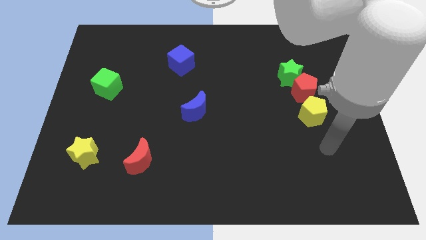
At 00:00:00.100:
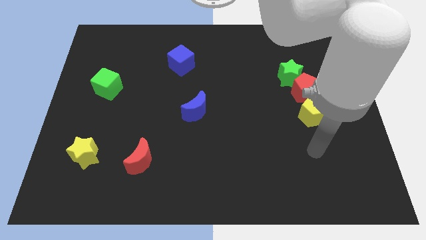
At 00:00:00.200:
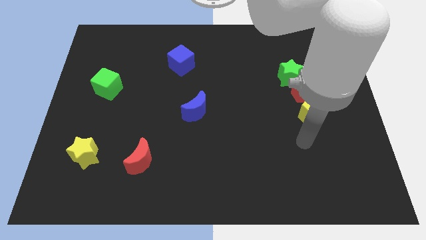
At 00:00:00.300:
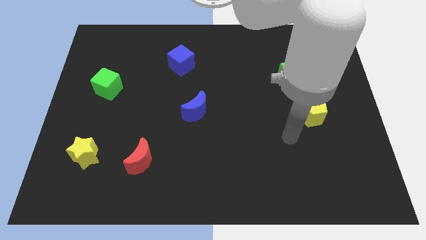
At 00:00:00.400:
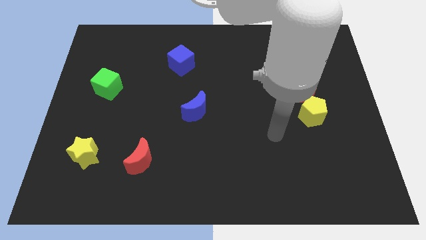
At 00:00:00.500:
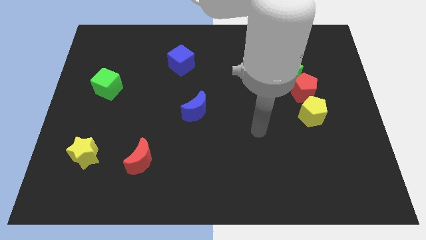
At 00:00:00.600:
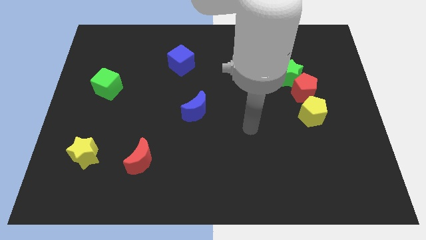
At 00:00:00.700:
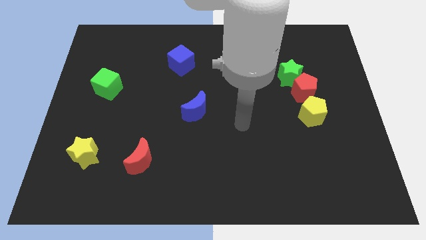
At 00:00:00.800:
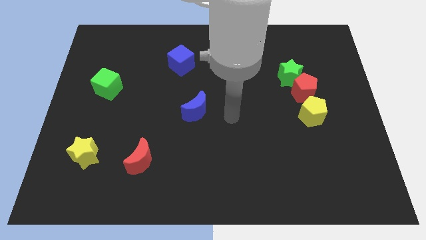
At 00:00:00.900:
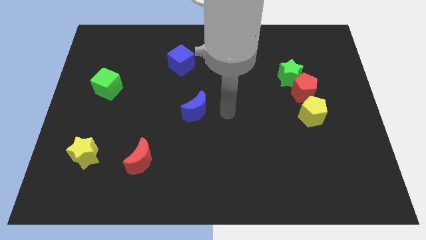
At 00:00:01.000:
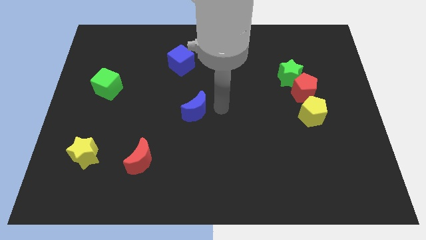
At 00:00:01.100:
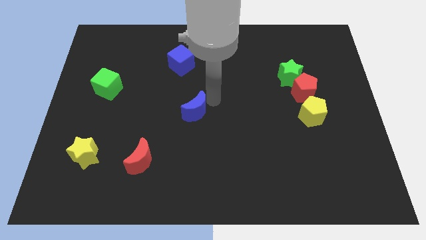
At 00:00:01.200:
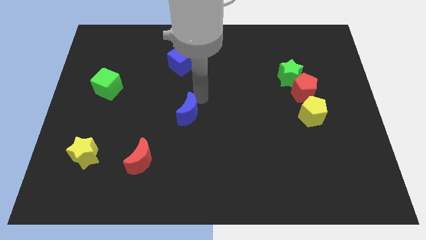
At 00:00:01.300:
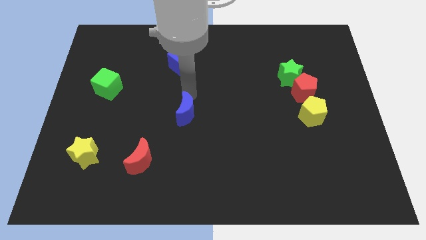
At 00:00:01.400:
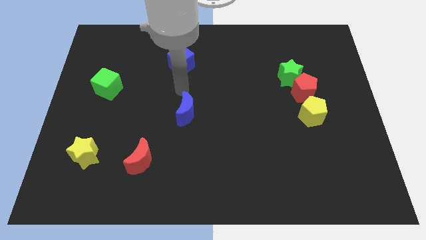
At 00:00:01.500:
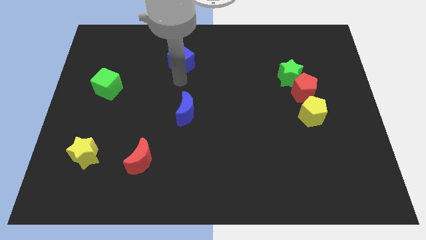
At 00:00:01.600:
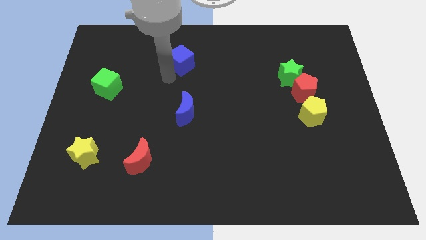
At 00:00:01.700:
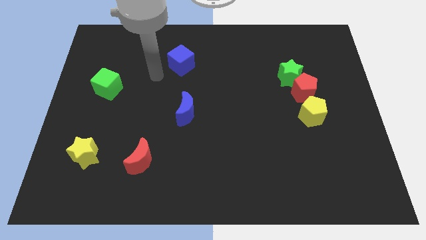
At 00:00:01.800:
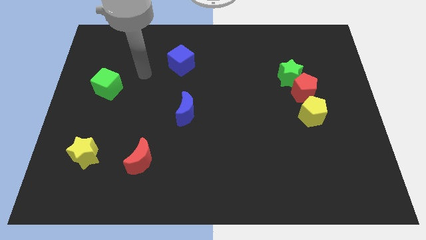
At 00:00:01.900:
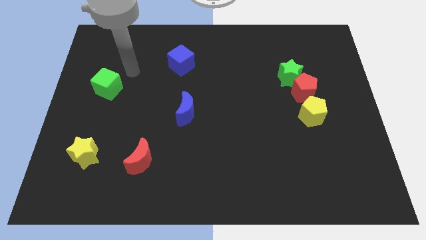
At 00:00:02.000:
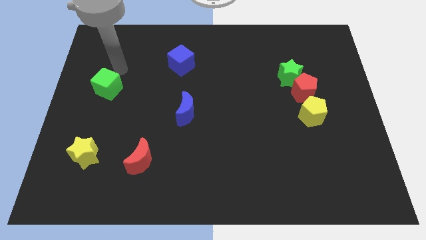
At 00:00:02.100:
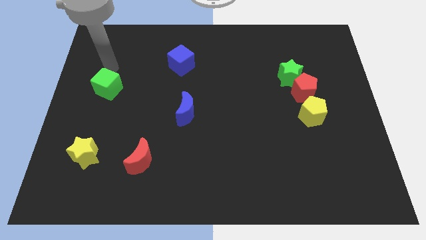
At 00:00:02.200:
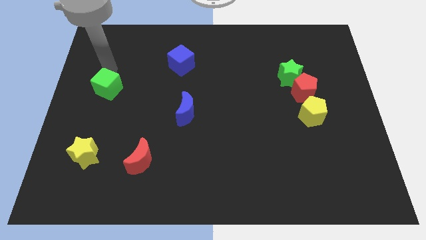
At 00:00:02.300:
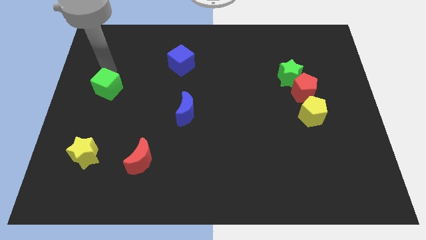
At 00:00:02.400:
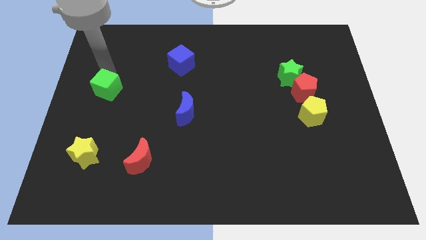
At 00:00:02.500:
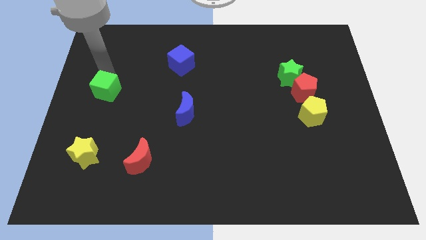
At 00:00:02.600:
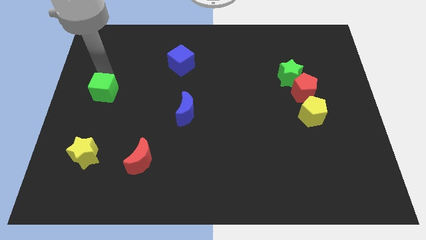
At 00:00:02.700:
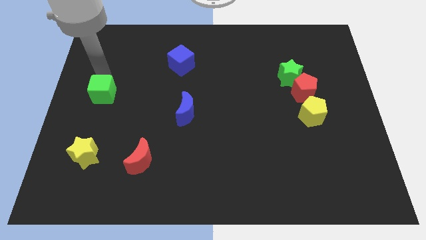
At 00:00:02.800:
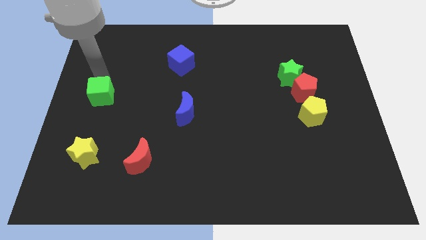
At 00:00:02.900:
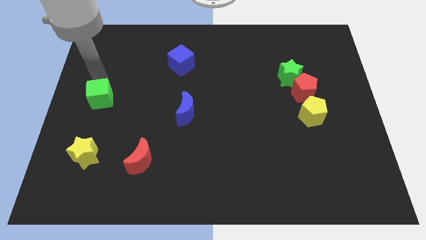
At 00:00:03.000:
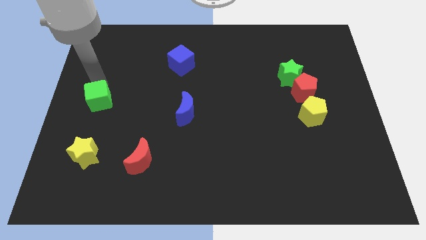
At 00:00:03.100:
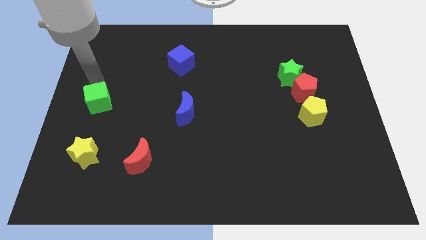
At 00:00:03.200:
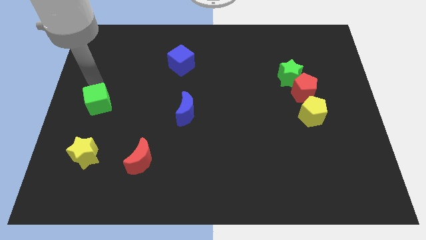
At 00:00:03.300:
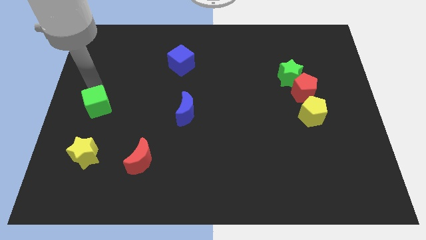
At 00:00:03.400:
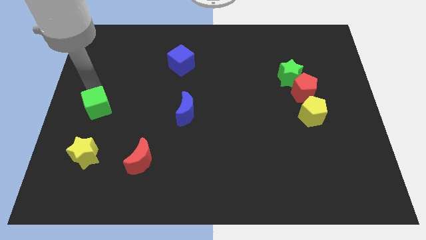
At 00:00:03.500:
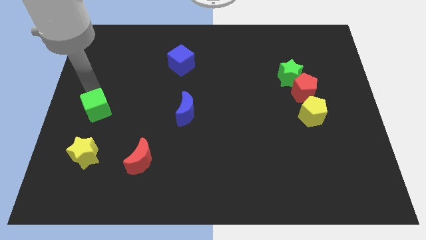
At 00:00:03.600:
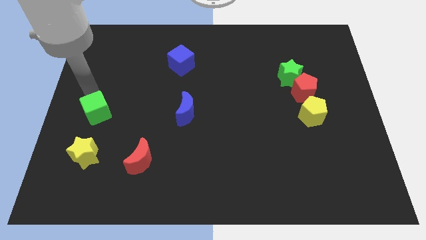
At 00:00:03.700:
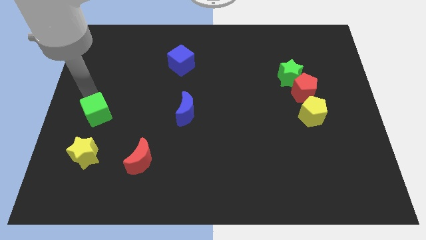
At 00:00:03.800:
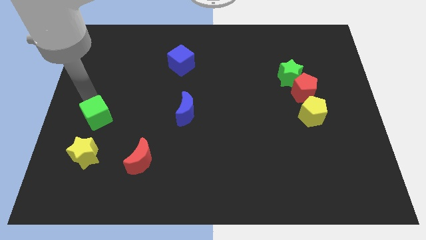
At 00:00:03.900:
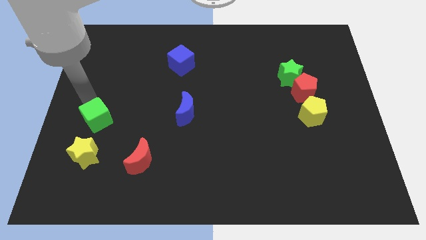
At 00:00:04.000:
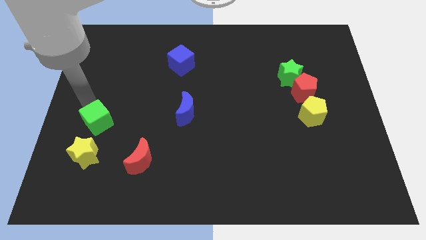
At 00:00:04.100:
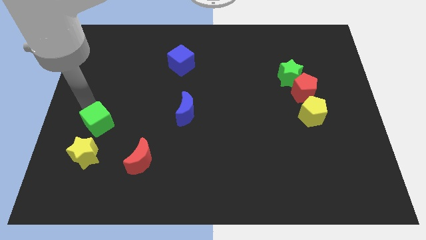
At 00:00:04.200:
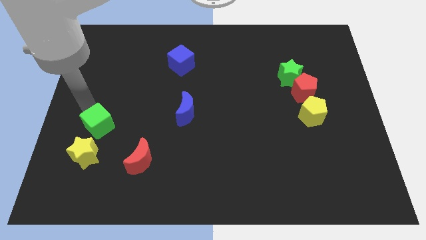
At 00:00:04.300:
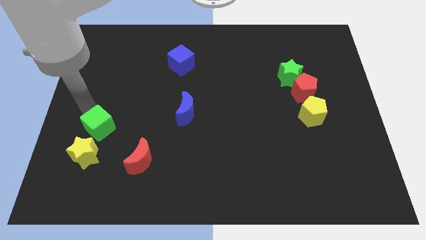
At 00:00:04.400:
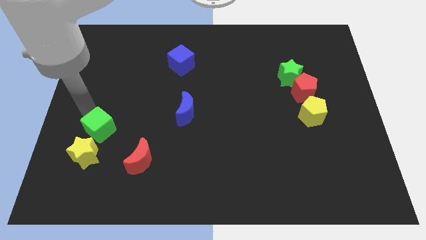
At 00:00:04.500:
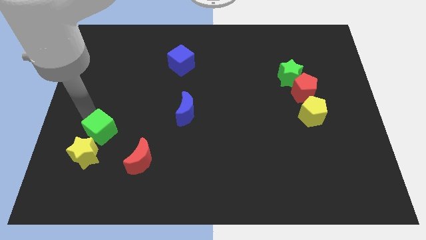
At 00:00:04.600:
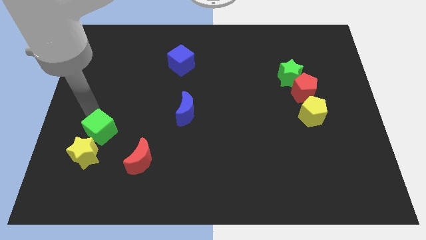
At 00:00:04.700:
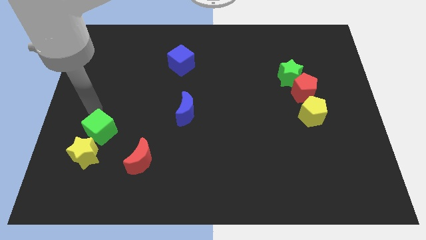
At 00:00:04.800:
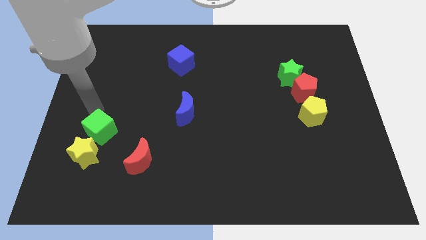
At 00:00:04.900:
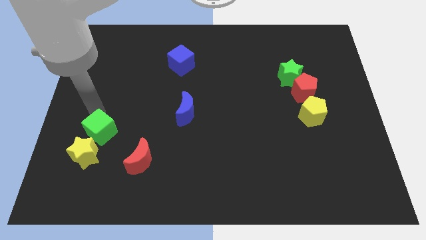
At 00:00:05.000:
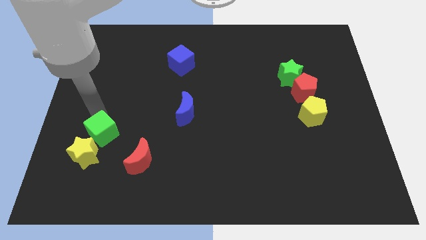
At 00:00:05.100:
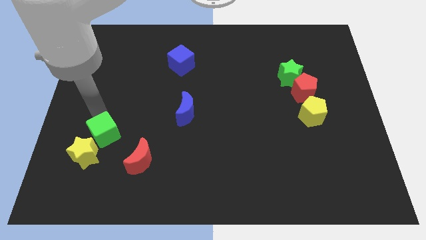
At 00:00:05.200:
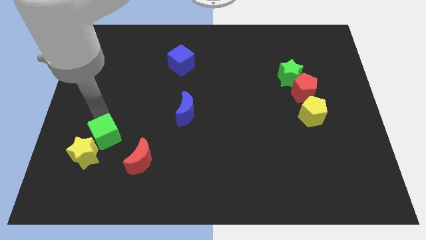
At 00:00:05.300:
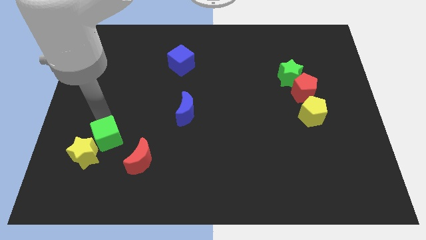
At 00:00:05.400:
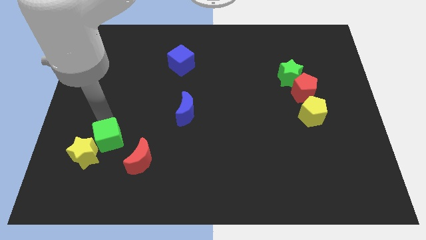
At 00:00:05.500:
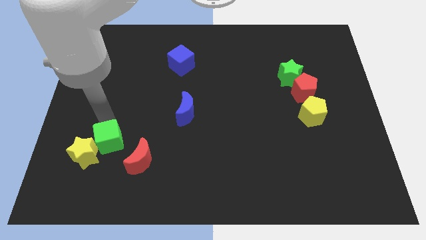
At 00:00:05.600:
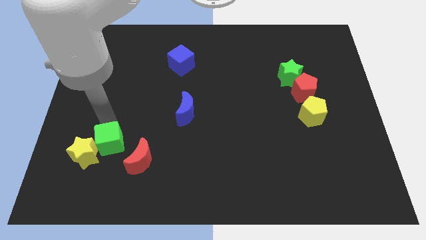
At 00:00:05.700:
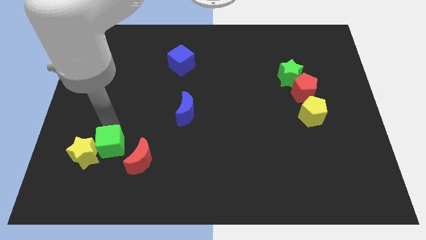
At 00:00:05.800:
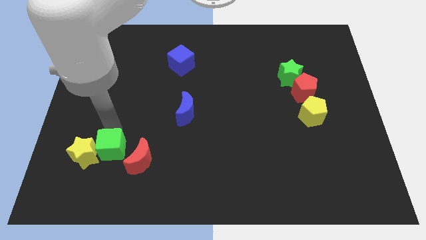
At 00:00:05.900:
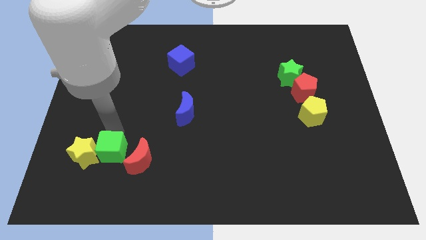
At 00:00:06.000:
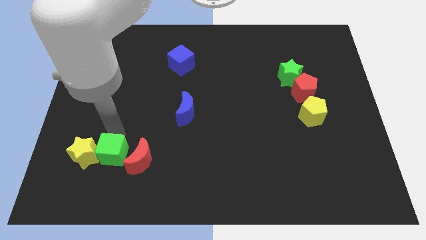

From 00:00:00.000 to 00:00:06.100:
slide the green cube to the bottom right side of the yellow star

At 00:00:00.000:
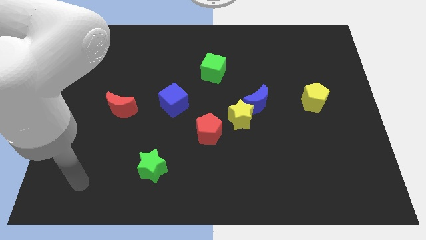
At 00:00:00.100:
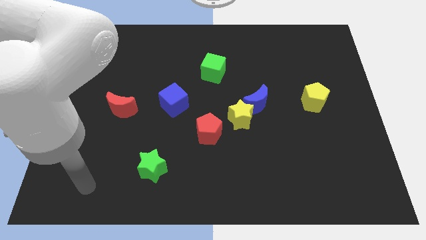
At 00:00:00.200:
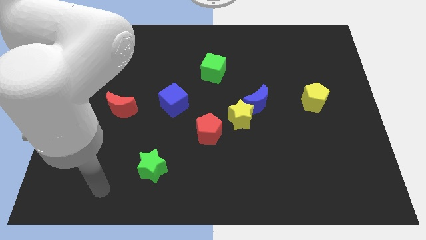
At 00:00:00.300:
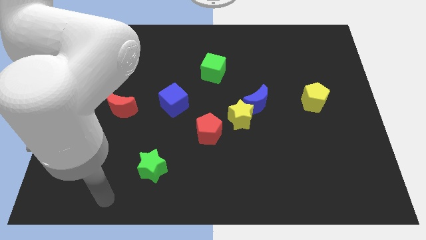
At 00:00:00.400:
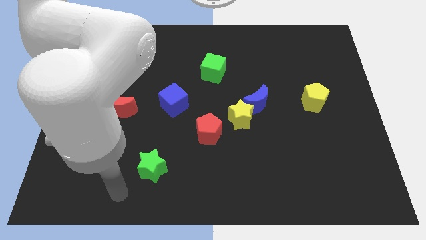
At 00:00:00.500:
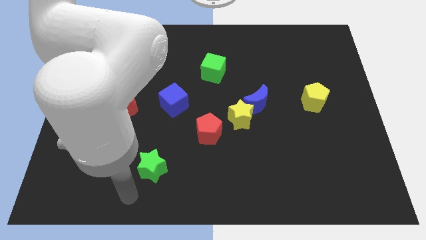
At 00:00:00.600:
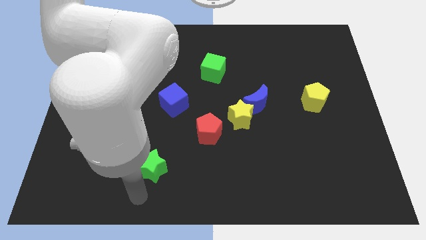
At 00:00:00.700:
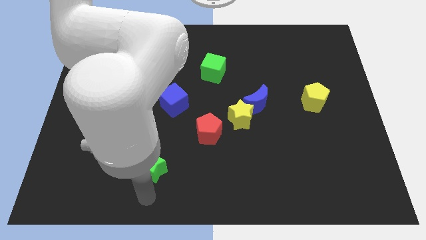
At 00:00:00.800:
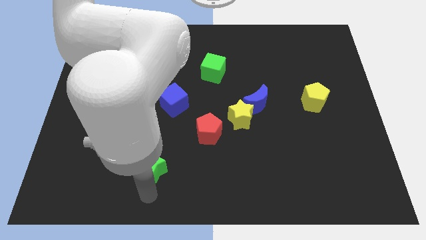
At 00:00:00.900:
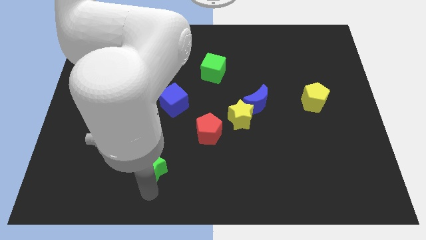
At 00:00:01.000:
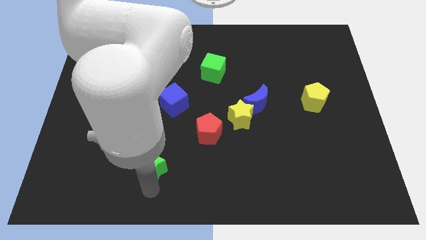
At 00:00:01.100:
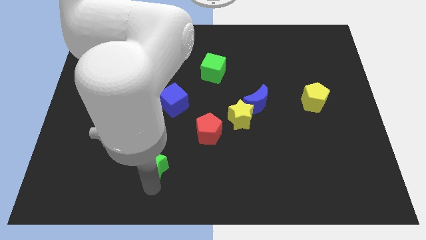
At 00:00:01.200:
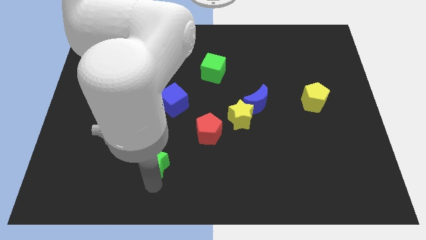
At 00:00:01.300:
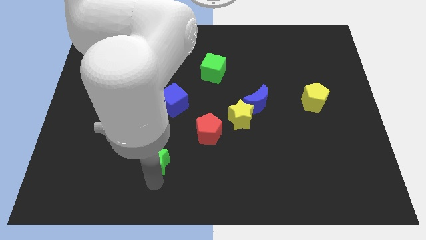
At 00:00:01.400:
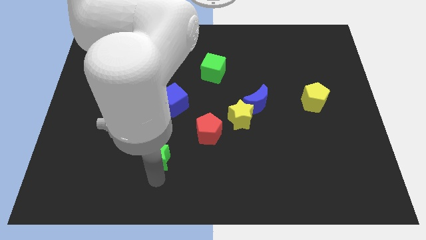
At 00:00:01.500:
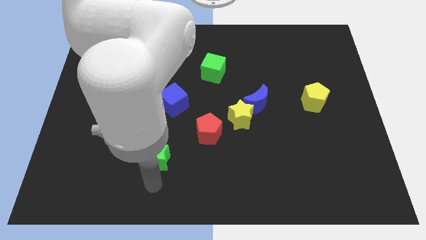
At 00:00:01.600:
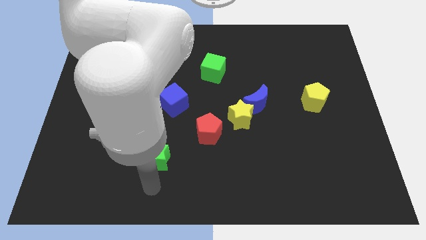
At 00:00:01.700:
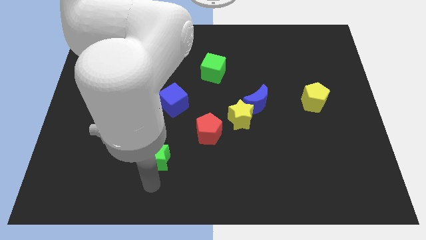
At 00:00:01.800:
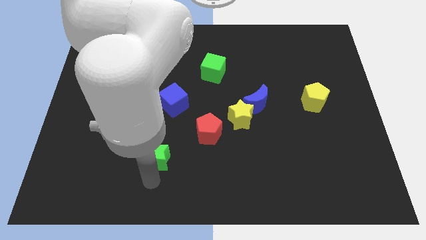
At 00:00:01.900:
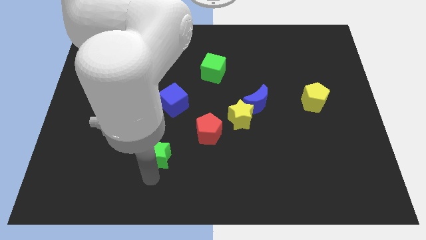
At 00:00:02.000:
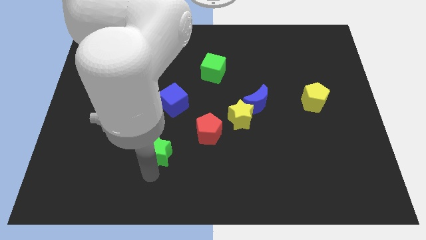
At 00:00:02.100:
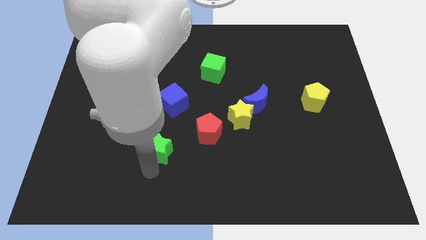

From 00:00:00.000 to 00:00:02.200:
put the green star just left of the red pentagon
